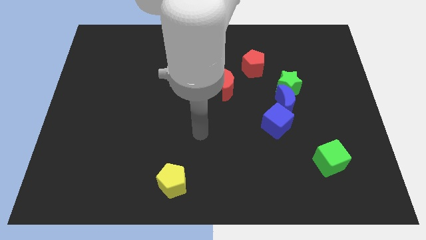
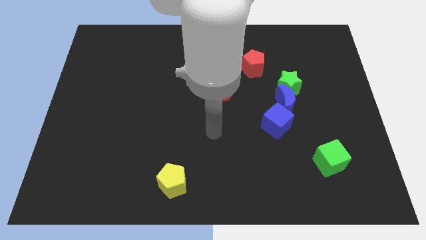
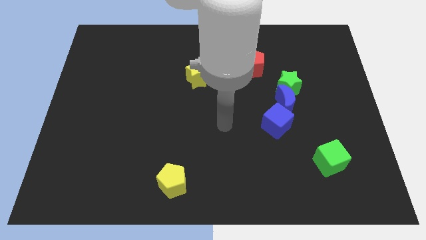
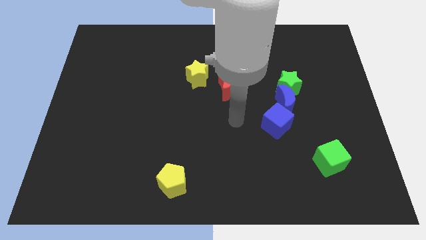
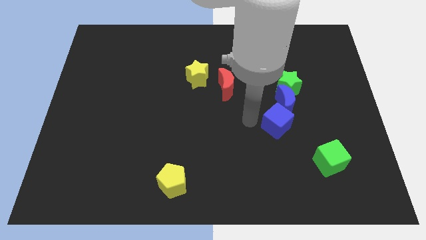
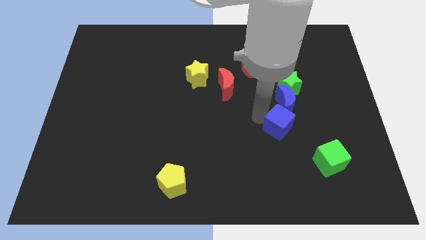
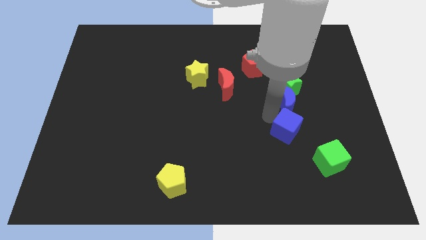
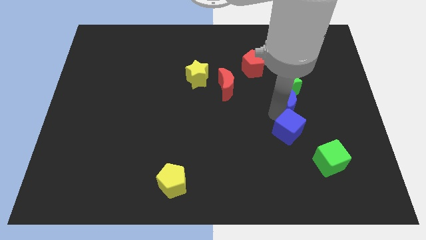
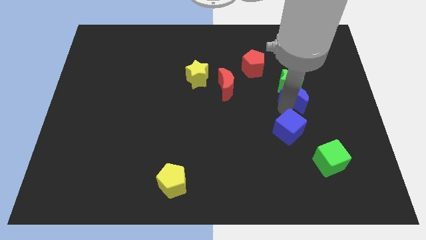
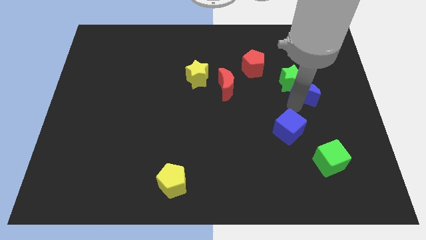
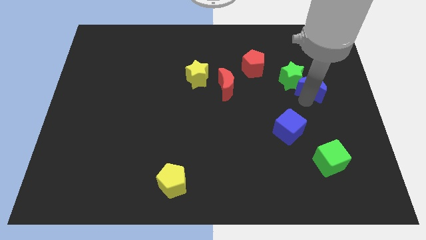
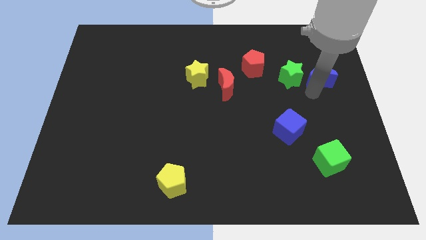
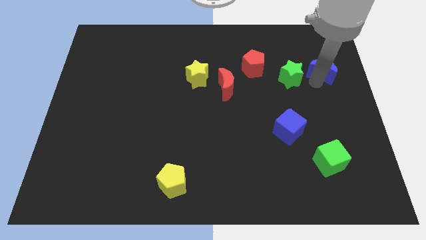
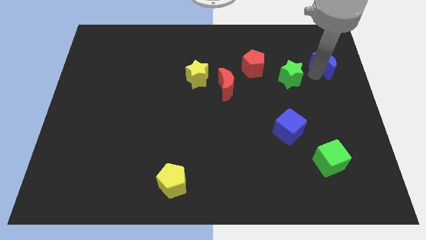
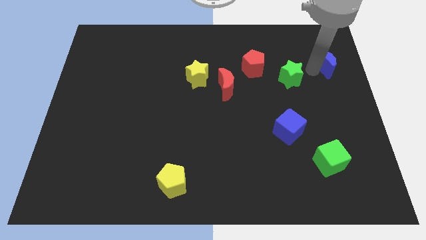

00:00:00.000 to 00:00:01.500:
separate the green star from the blue moon

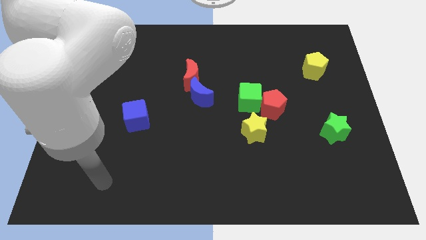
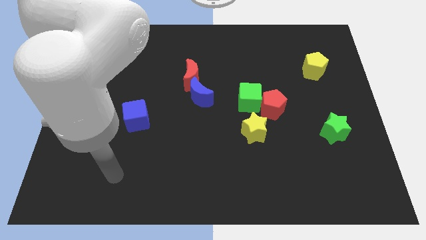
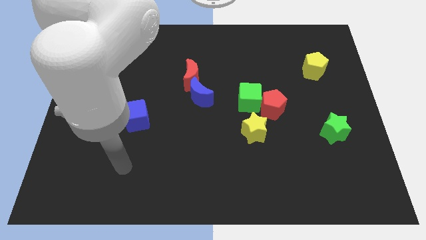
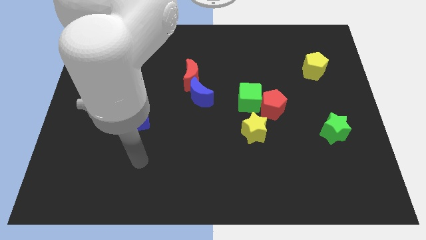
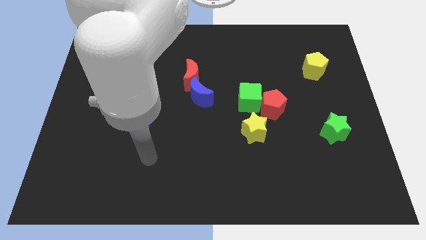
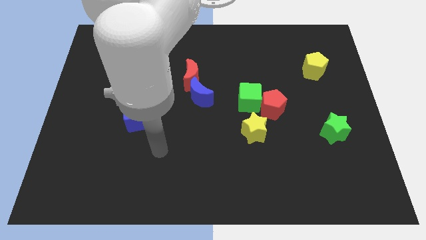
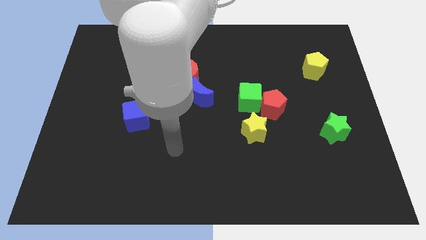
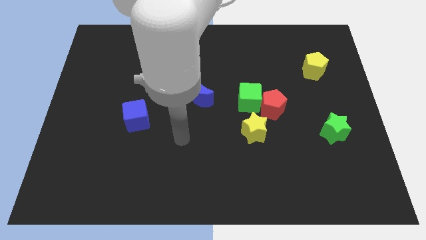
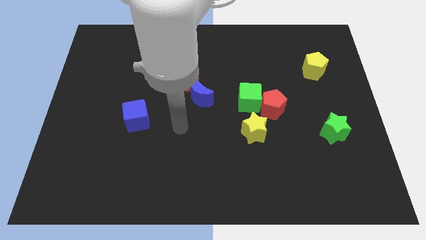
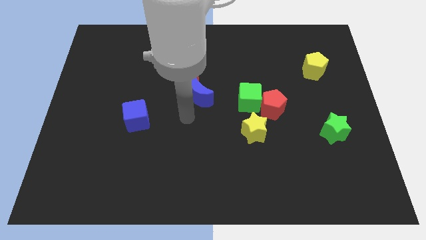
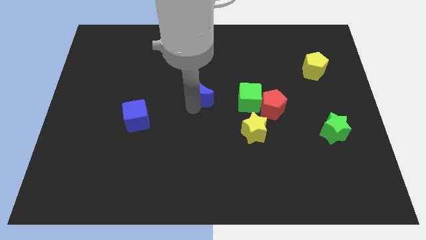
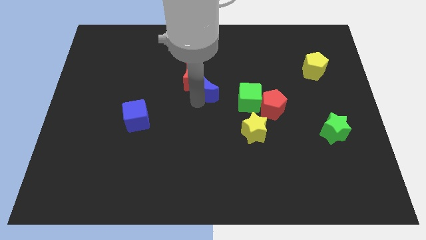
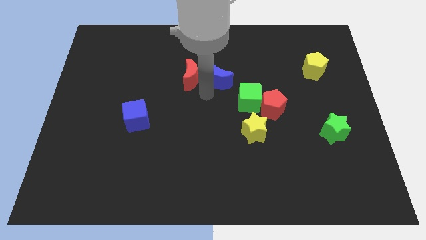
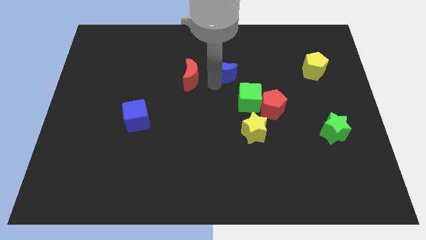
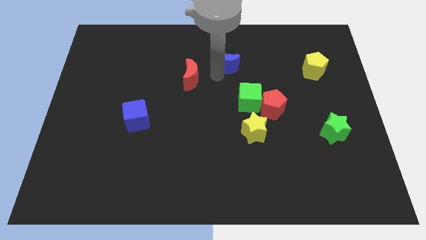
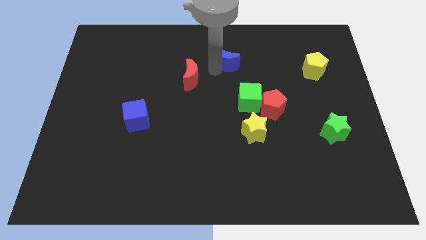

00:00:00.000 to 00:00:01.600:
move the red moon away from the blue moon

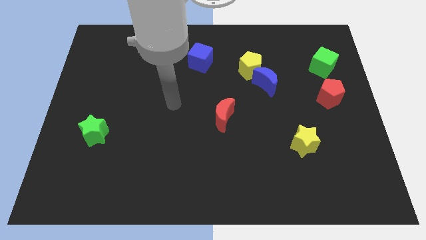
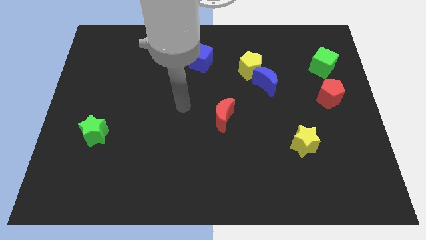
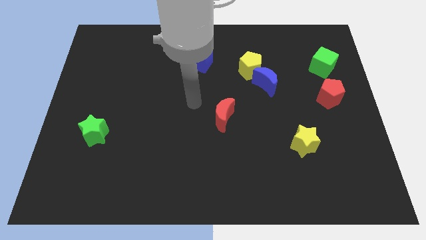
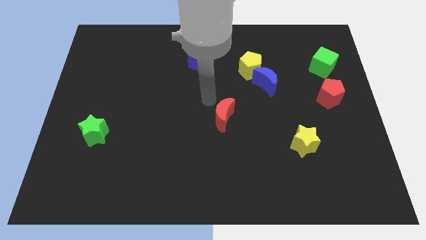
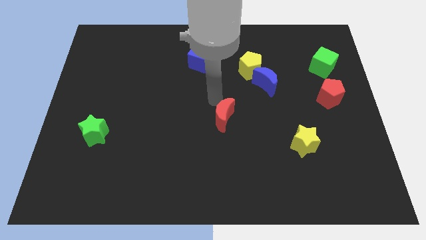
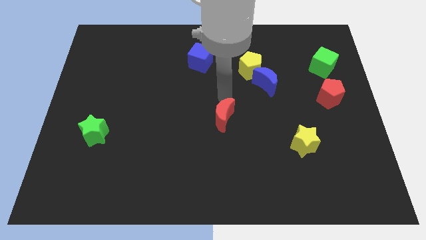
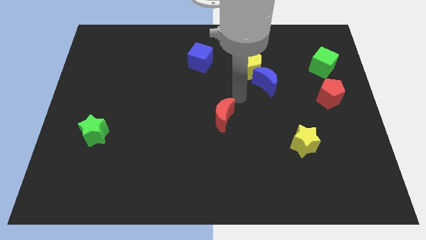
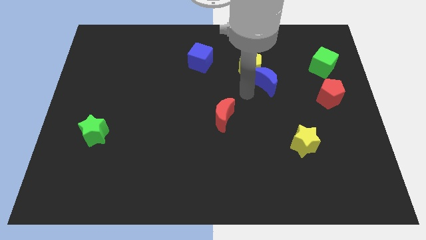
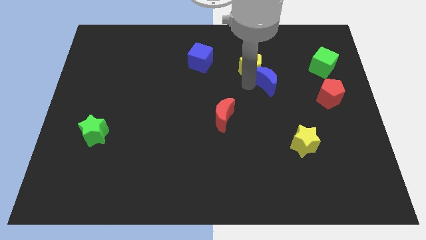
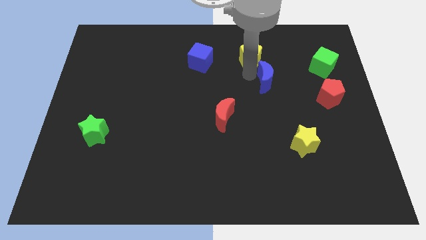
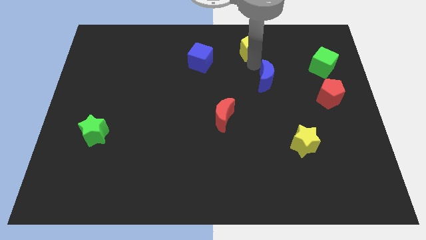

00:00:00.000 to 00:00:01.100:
pull the blue moon apart from the yellow pentagon

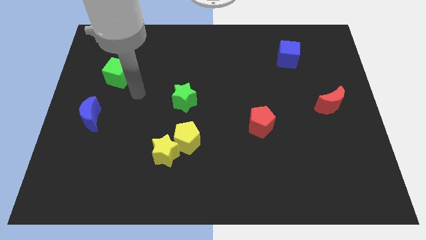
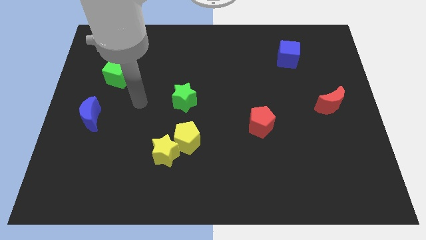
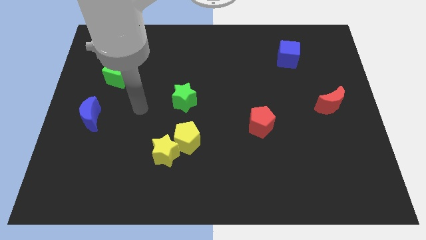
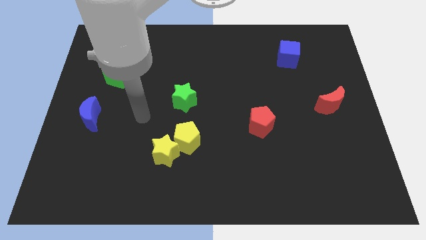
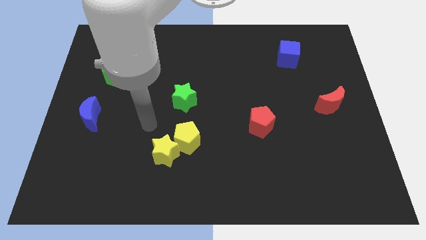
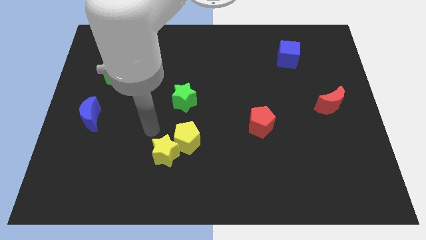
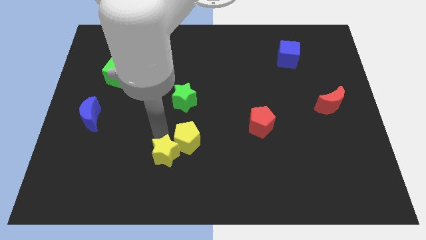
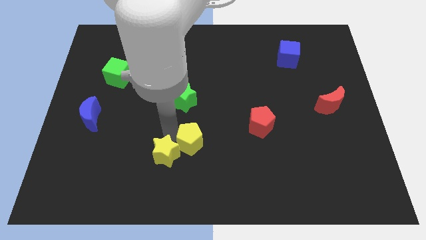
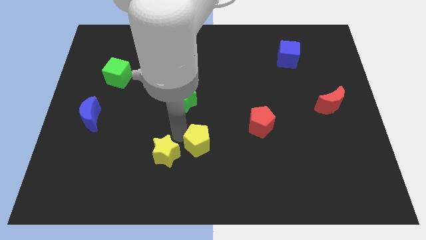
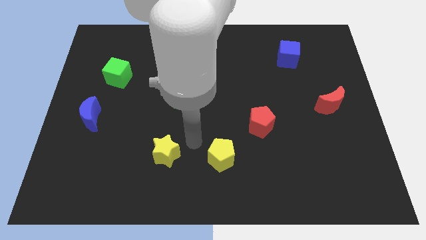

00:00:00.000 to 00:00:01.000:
separate the yellow star from the yellow pentagon

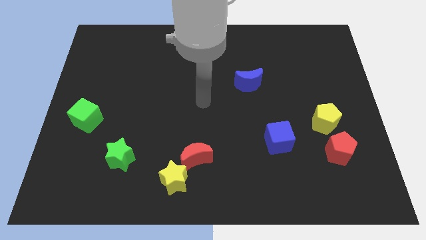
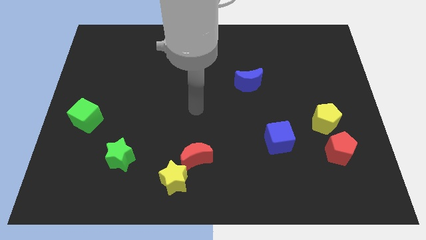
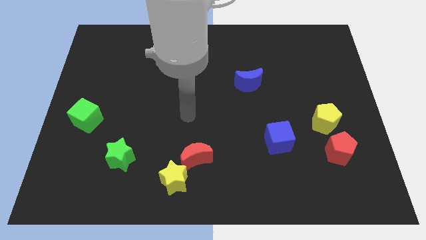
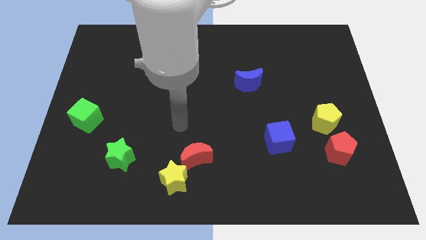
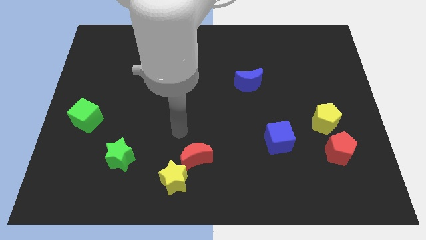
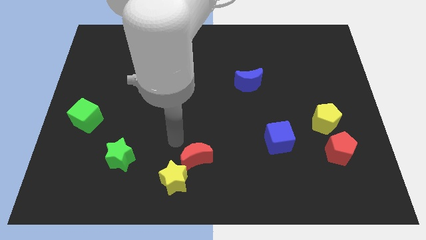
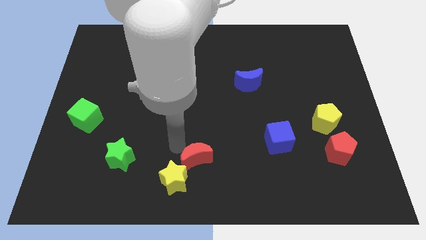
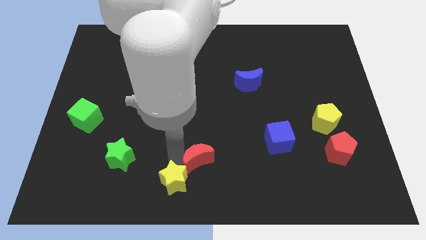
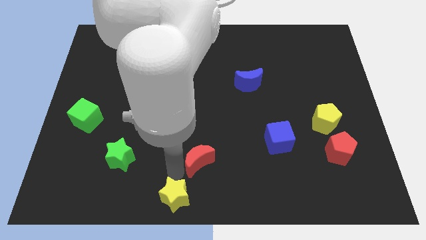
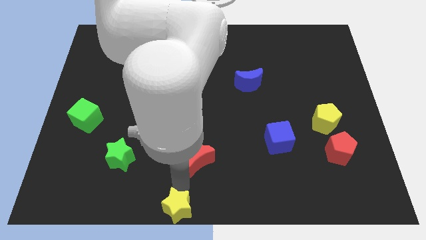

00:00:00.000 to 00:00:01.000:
separate the red moon from the yellow star

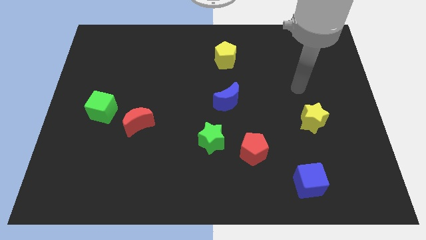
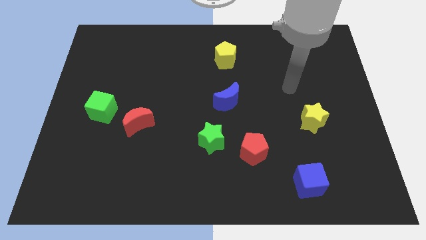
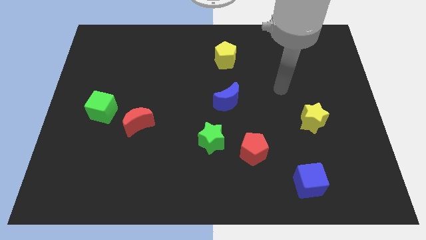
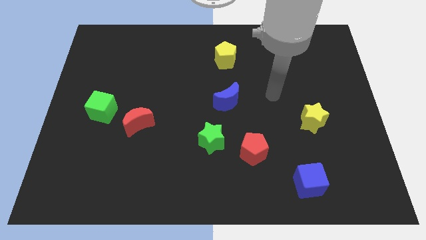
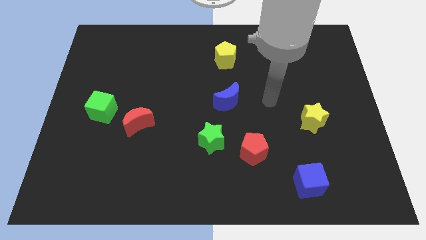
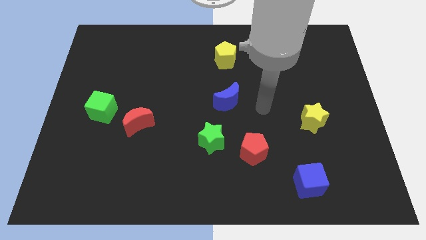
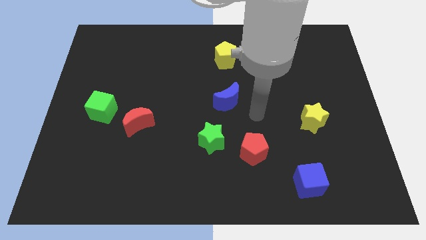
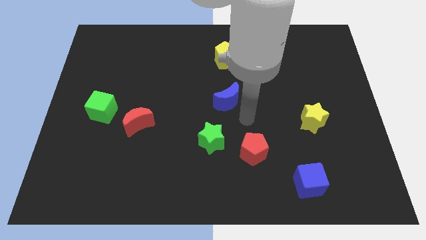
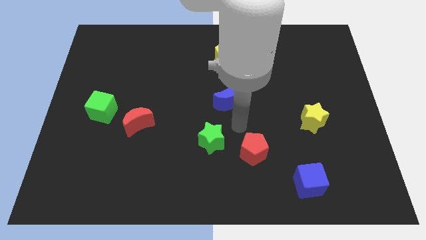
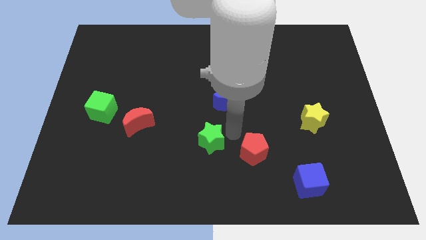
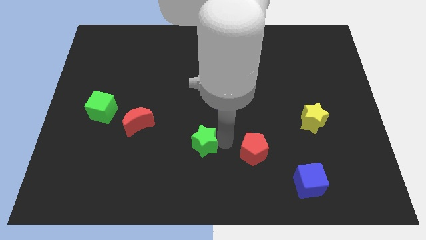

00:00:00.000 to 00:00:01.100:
move the red pentagon away from the green star

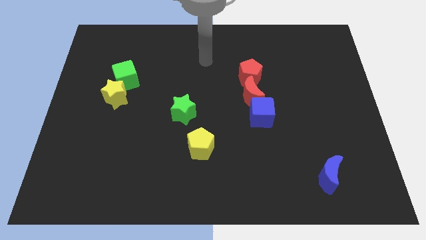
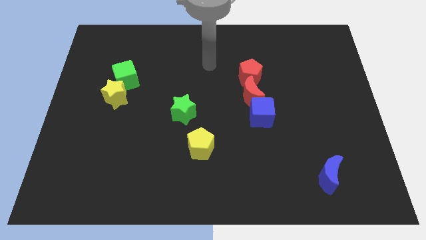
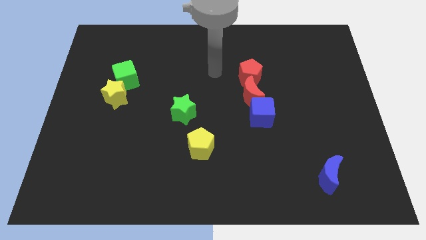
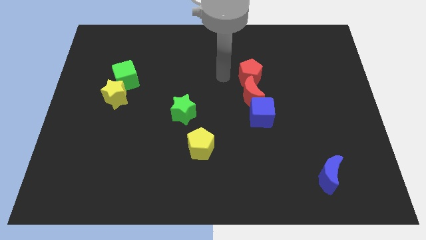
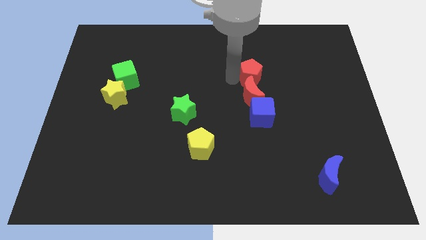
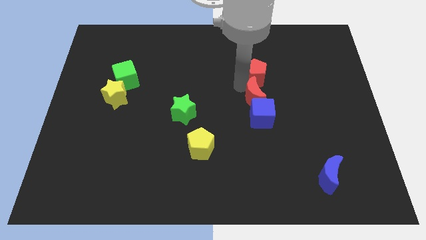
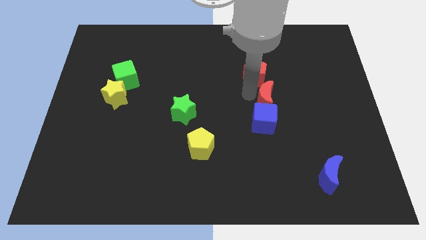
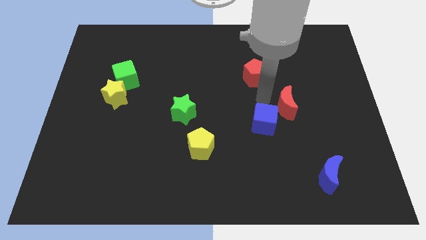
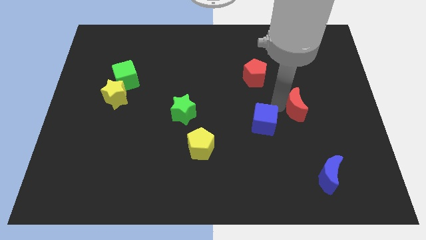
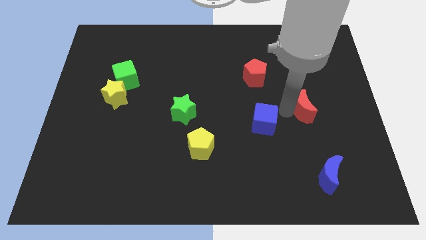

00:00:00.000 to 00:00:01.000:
move the blue cube away from the red moon

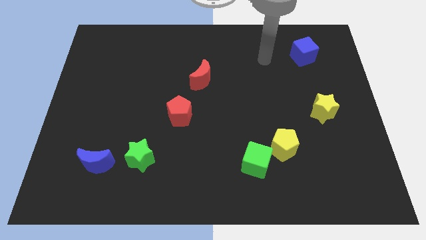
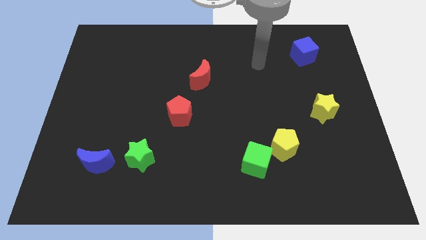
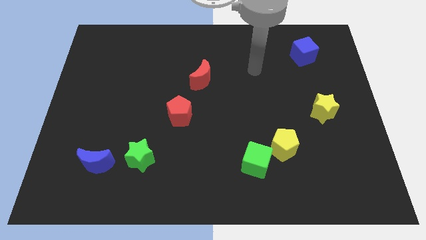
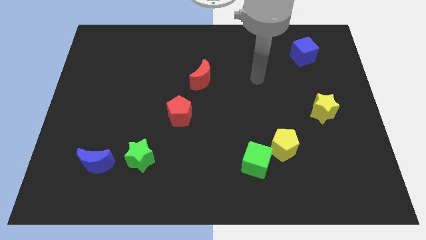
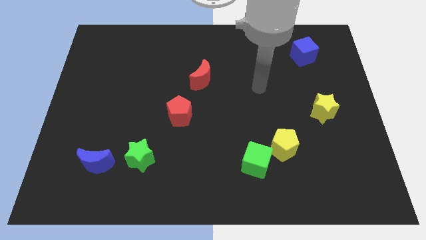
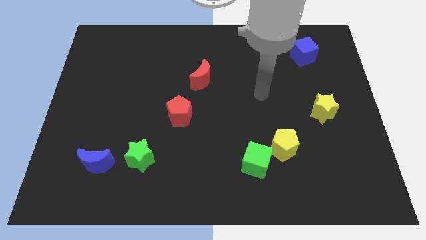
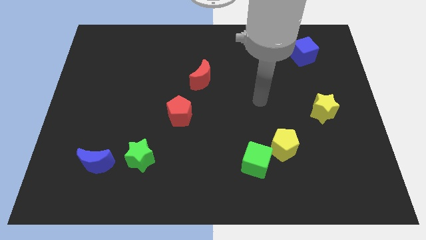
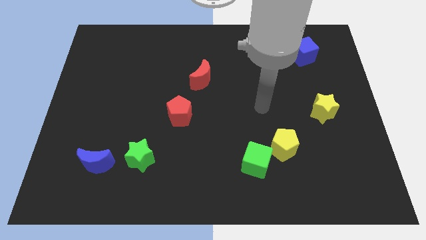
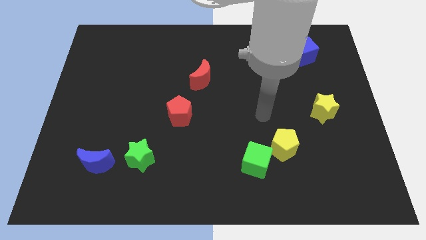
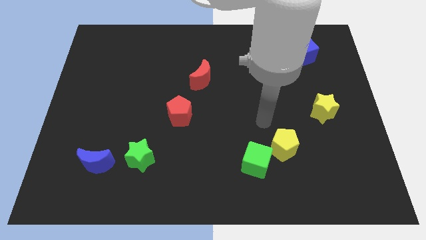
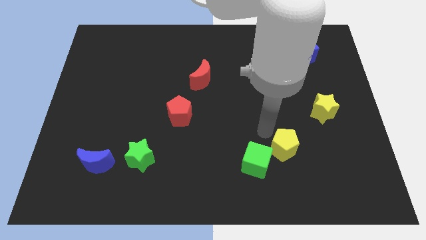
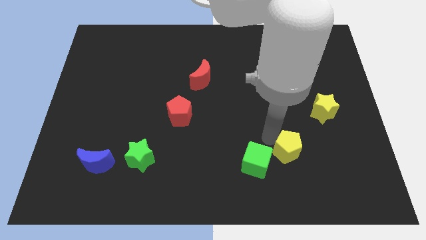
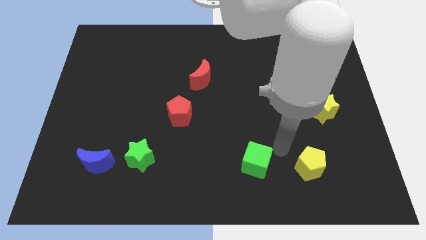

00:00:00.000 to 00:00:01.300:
move the green cube away from the yellow pentagon
